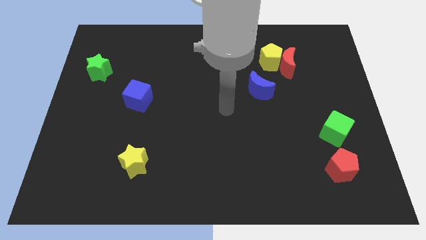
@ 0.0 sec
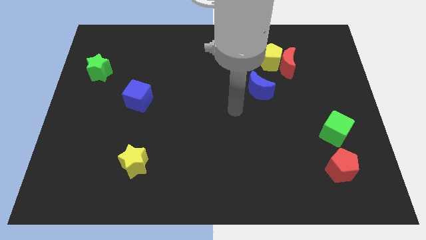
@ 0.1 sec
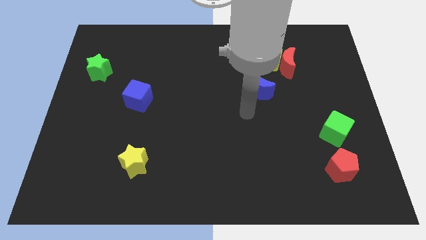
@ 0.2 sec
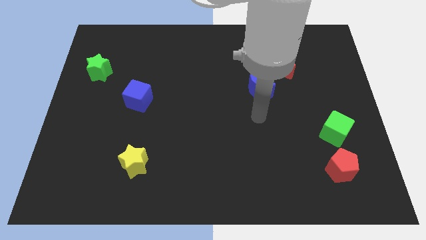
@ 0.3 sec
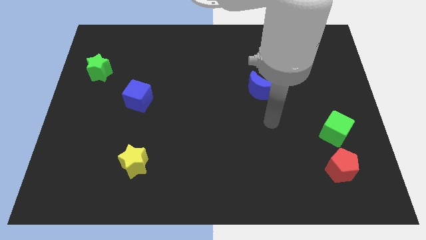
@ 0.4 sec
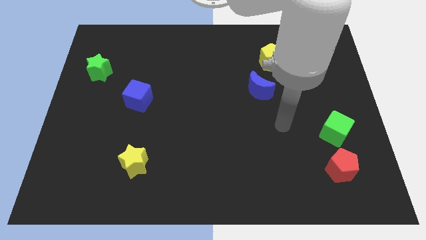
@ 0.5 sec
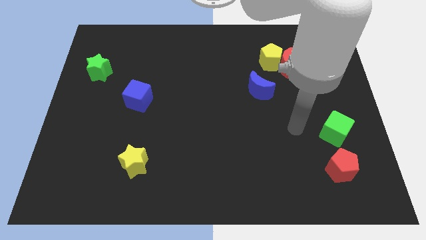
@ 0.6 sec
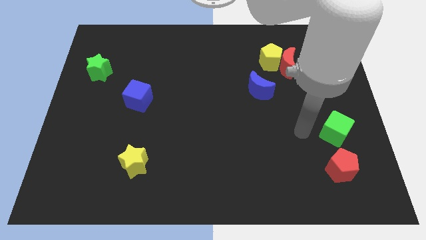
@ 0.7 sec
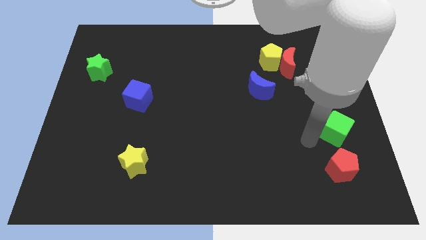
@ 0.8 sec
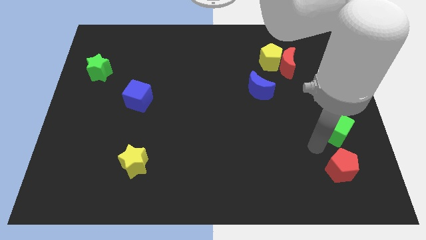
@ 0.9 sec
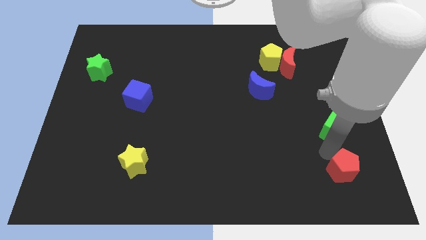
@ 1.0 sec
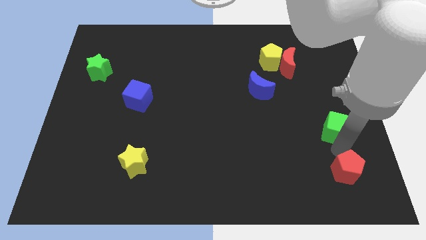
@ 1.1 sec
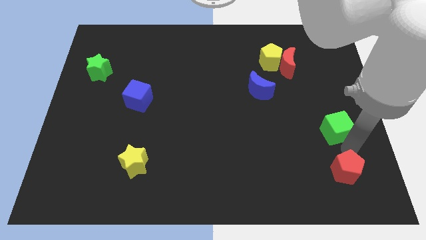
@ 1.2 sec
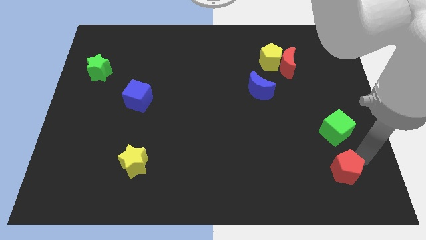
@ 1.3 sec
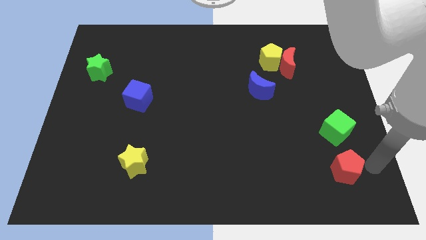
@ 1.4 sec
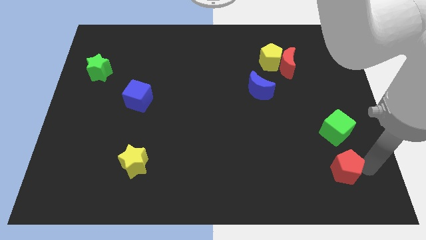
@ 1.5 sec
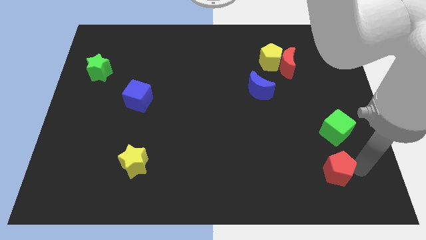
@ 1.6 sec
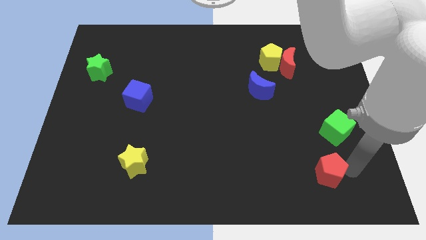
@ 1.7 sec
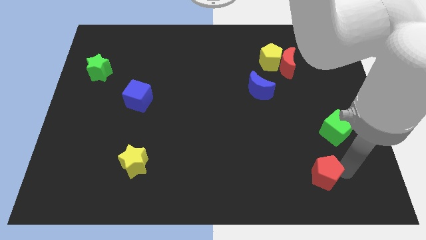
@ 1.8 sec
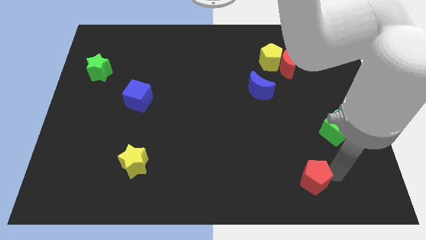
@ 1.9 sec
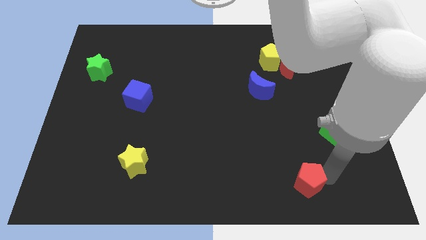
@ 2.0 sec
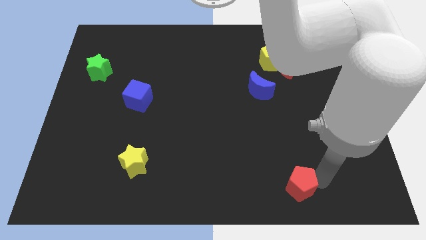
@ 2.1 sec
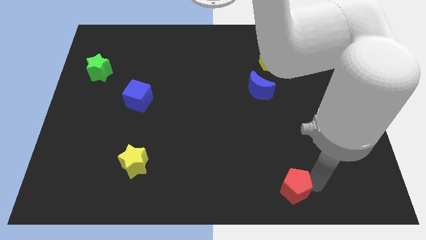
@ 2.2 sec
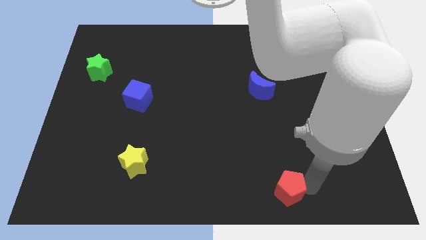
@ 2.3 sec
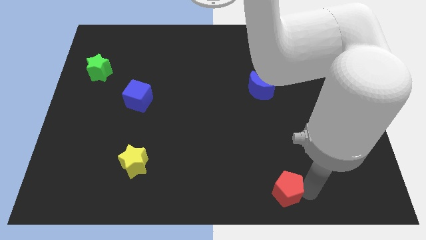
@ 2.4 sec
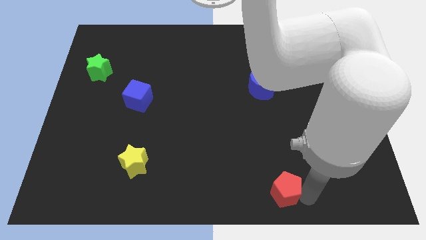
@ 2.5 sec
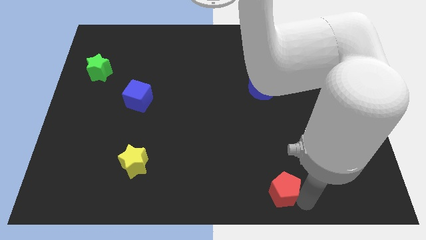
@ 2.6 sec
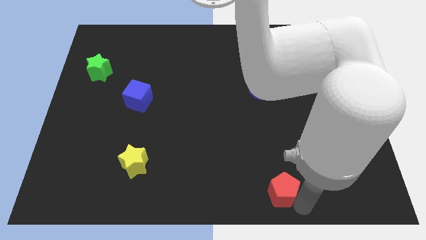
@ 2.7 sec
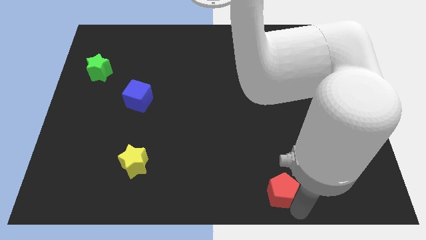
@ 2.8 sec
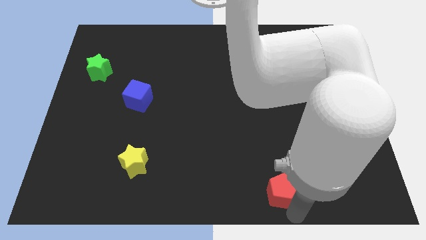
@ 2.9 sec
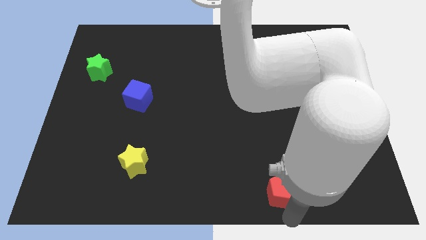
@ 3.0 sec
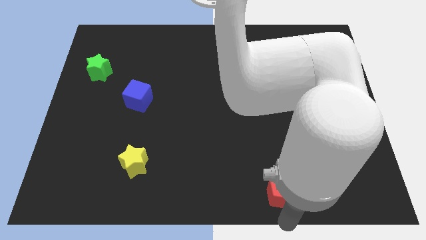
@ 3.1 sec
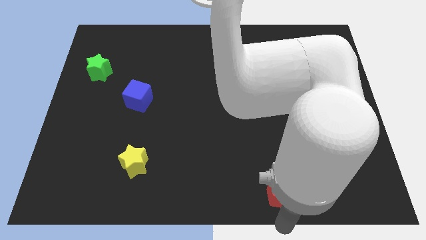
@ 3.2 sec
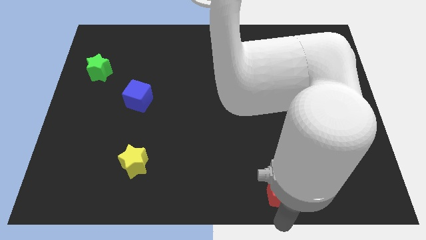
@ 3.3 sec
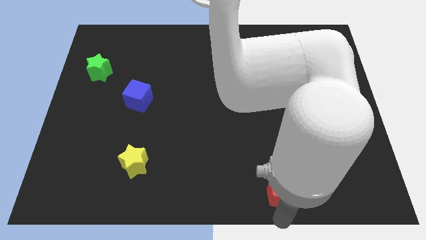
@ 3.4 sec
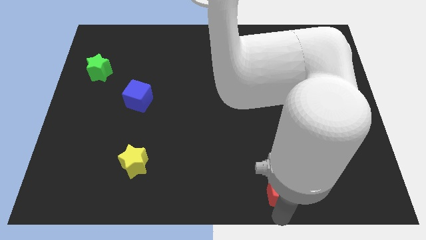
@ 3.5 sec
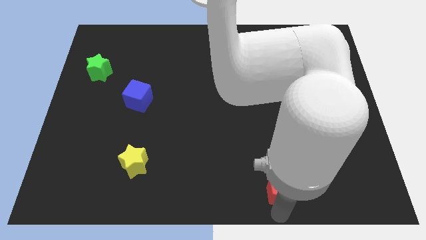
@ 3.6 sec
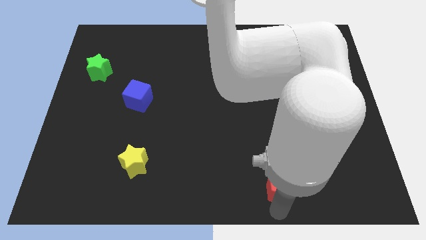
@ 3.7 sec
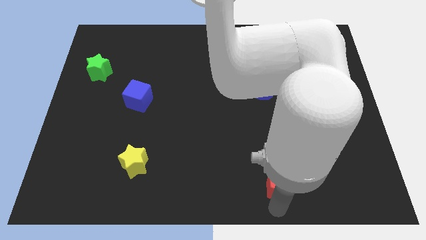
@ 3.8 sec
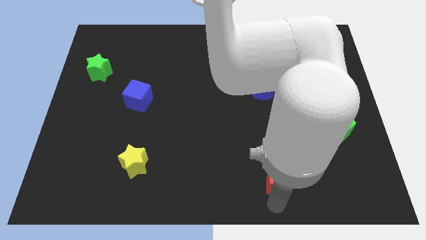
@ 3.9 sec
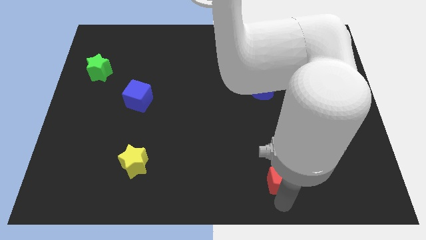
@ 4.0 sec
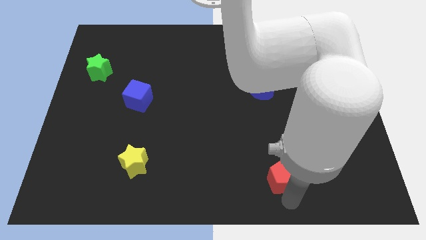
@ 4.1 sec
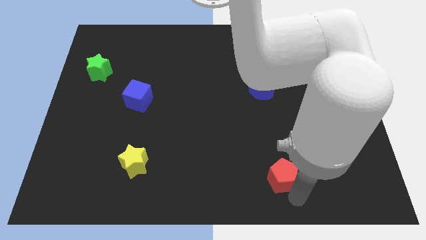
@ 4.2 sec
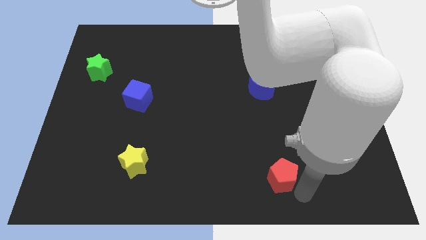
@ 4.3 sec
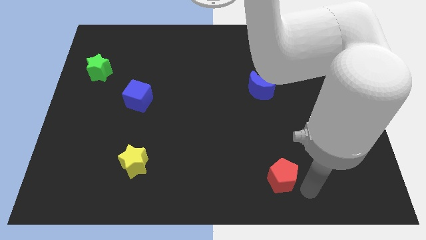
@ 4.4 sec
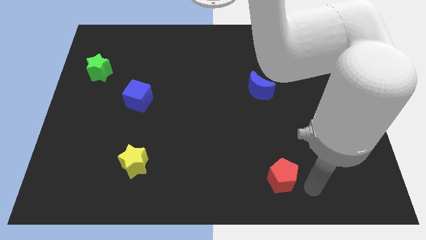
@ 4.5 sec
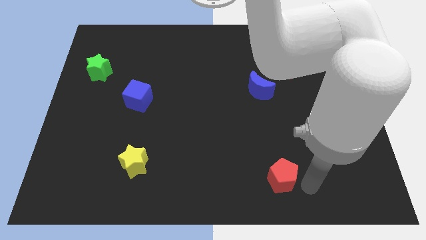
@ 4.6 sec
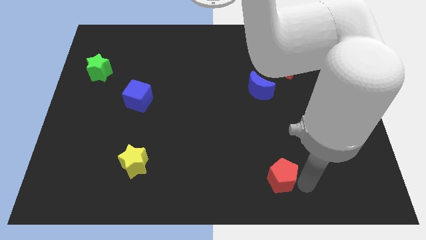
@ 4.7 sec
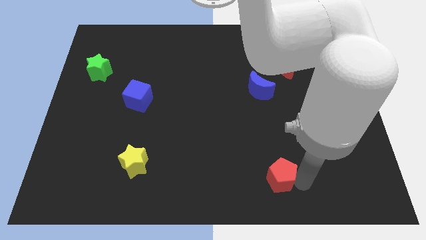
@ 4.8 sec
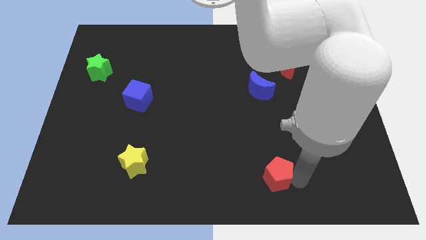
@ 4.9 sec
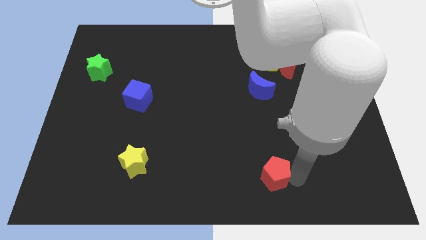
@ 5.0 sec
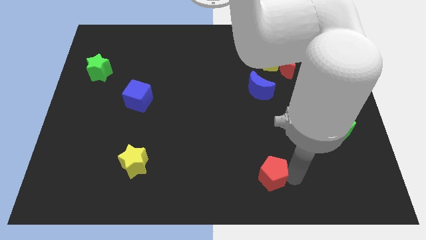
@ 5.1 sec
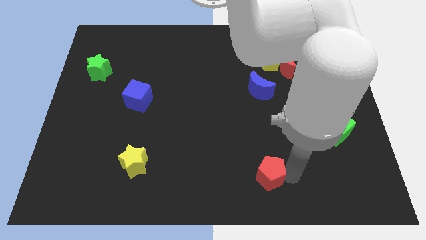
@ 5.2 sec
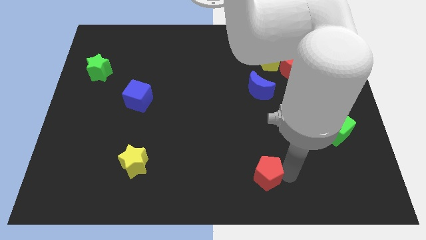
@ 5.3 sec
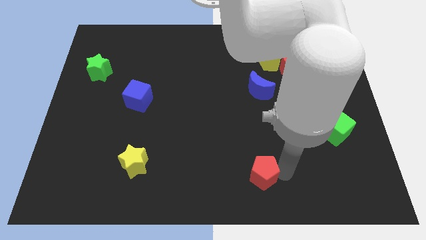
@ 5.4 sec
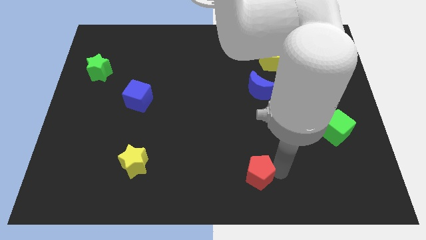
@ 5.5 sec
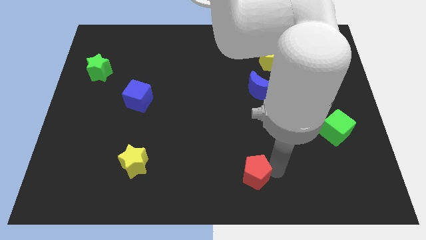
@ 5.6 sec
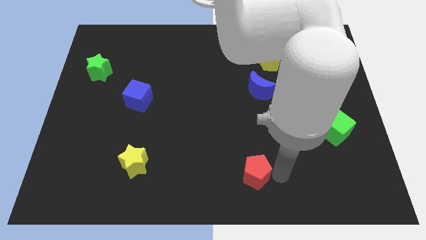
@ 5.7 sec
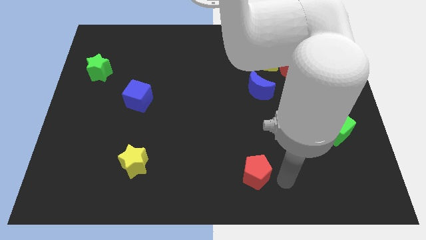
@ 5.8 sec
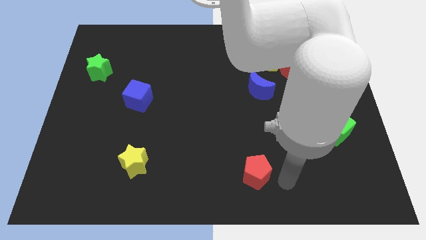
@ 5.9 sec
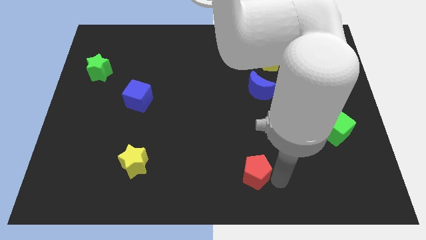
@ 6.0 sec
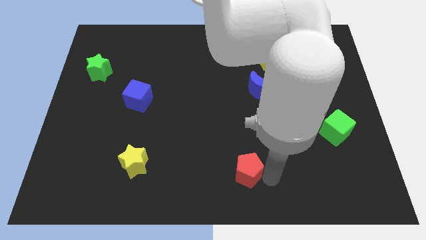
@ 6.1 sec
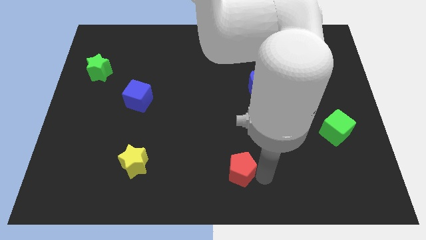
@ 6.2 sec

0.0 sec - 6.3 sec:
move the red pentagon to the left

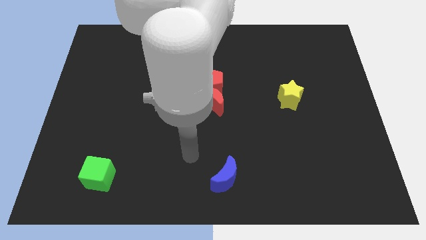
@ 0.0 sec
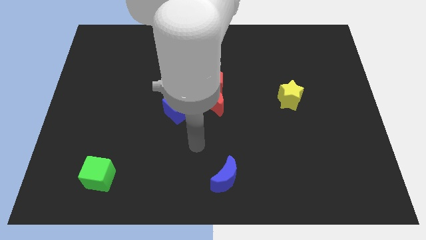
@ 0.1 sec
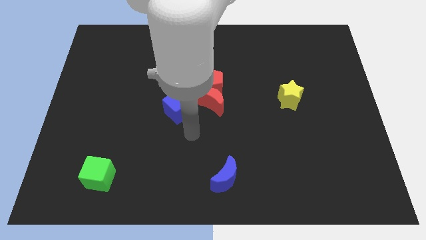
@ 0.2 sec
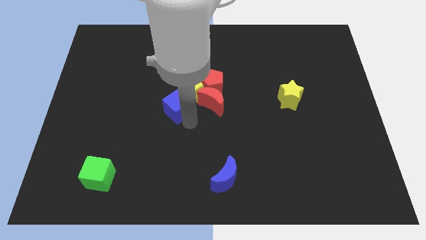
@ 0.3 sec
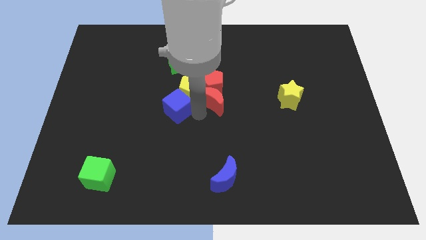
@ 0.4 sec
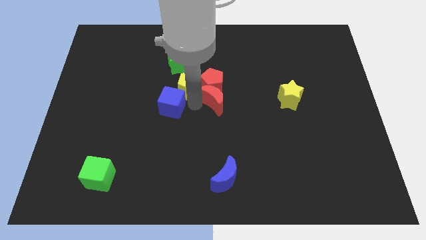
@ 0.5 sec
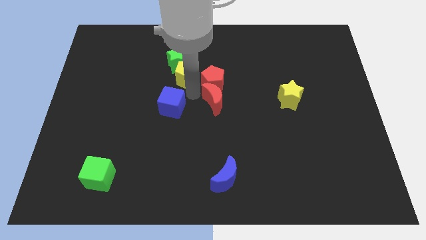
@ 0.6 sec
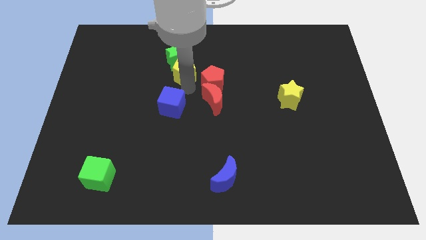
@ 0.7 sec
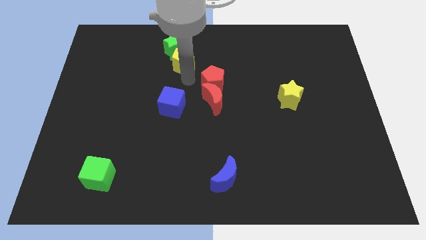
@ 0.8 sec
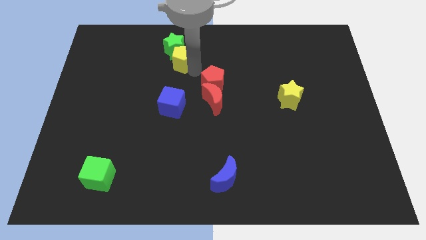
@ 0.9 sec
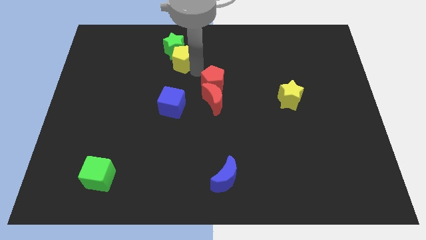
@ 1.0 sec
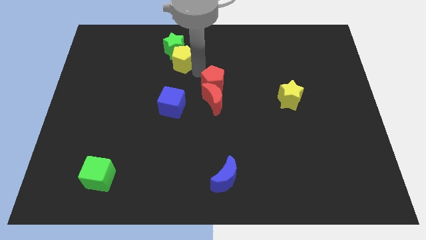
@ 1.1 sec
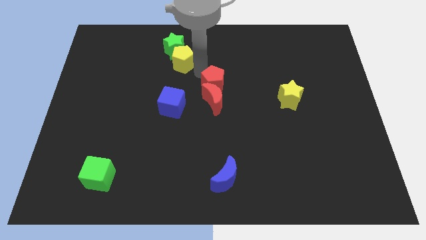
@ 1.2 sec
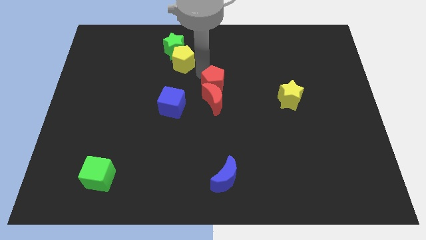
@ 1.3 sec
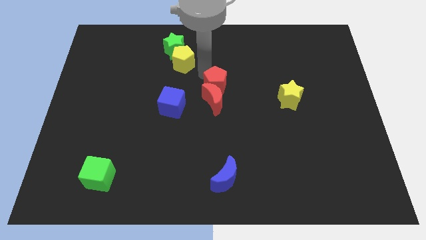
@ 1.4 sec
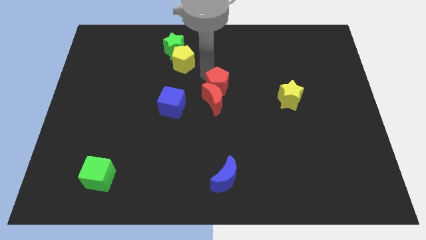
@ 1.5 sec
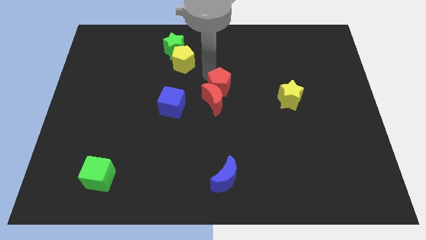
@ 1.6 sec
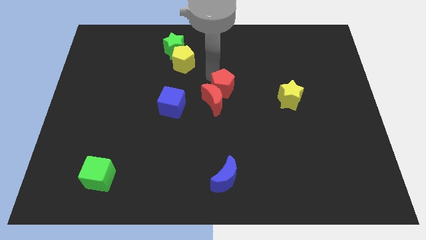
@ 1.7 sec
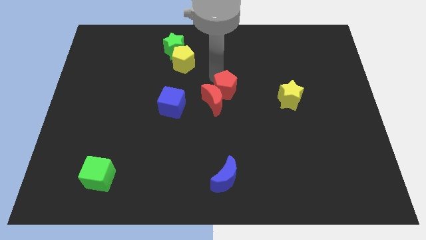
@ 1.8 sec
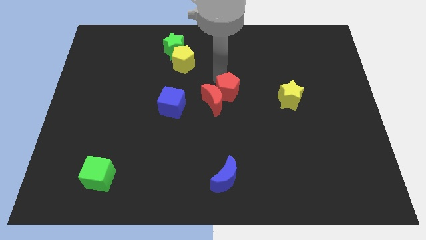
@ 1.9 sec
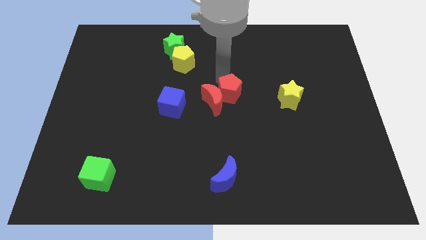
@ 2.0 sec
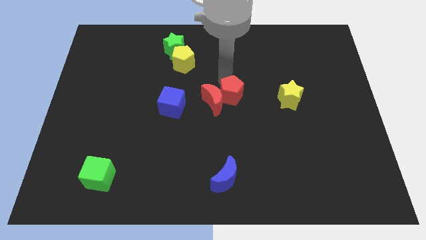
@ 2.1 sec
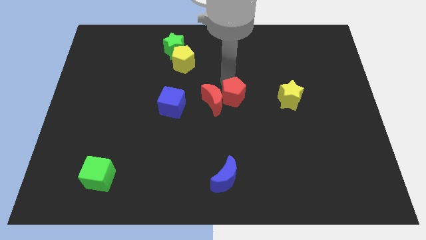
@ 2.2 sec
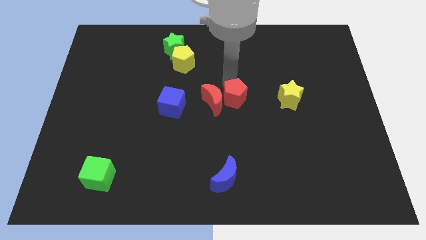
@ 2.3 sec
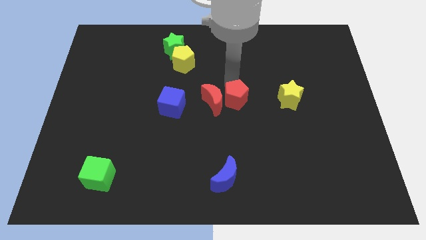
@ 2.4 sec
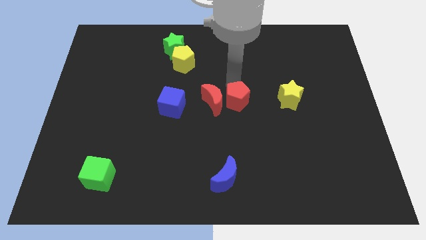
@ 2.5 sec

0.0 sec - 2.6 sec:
move the red pentagon somewhat down and to the right
